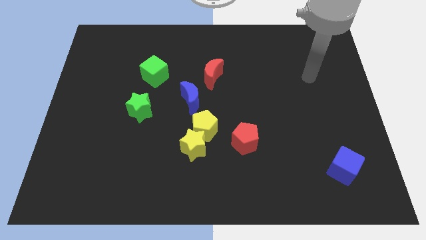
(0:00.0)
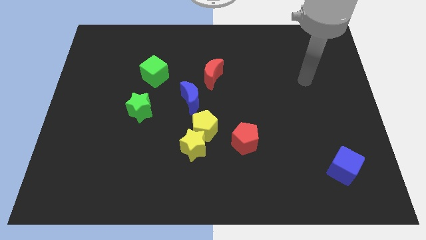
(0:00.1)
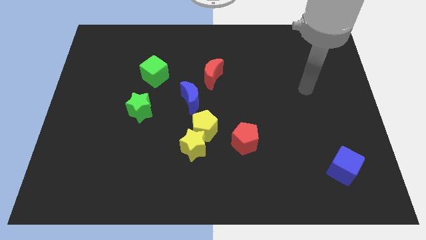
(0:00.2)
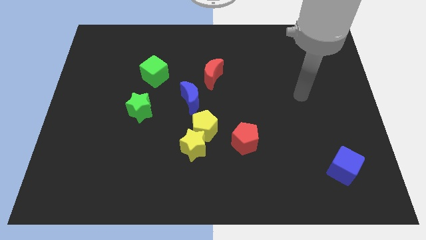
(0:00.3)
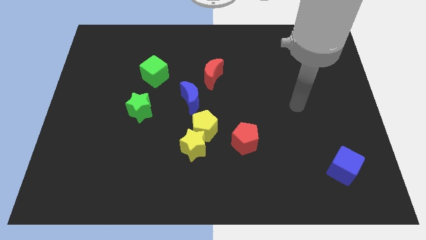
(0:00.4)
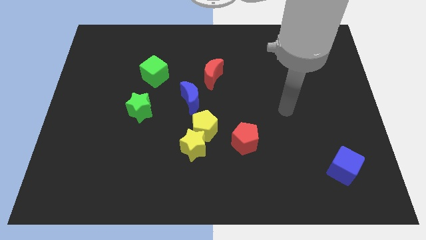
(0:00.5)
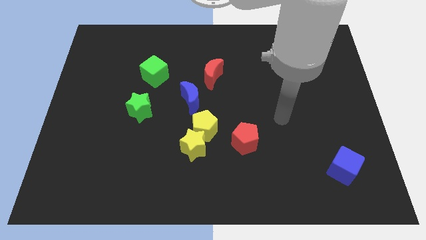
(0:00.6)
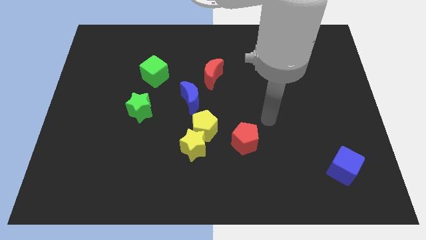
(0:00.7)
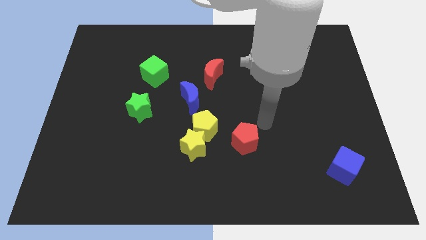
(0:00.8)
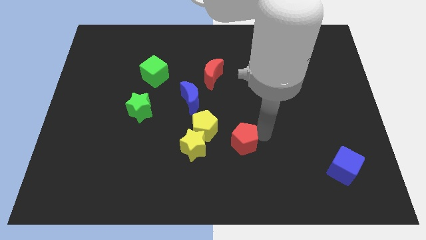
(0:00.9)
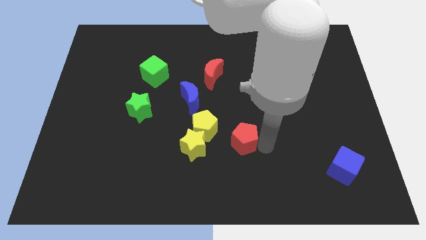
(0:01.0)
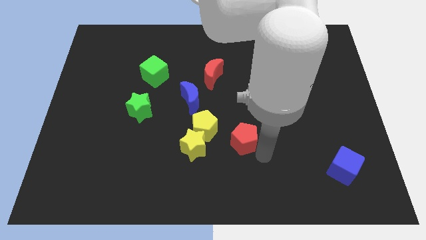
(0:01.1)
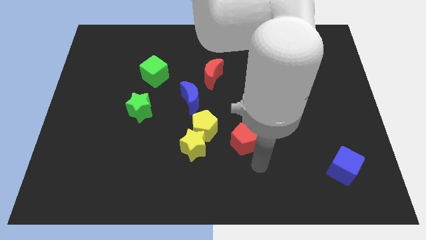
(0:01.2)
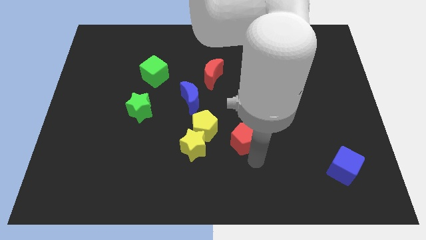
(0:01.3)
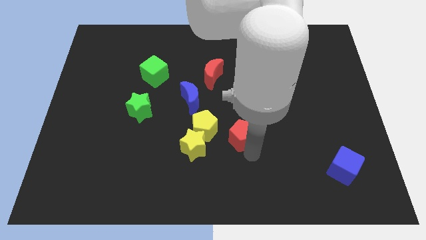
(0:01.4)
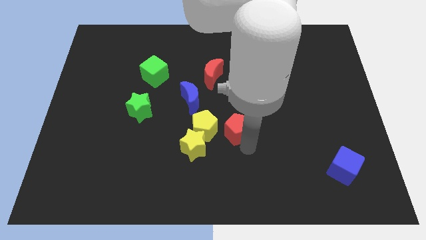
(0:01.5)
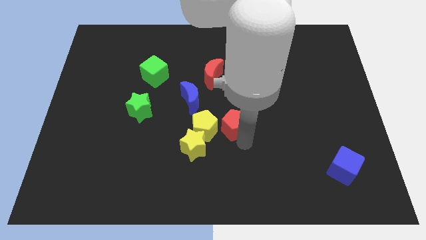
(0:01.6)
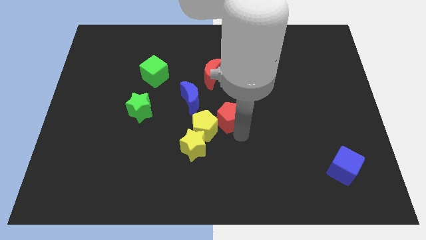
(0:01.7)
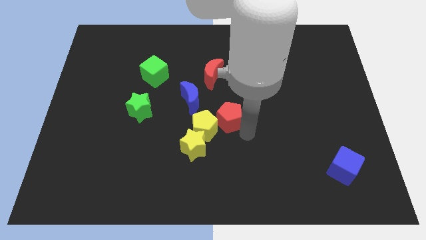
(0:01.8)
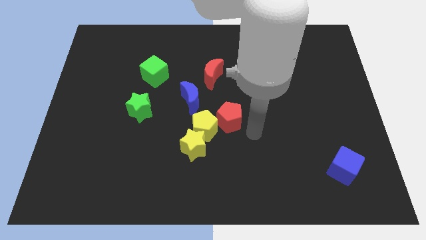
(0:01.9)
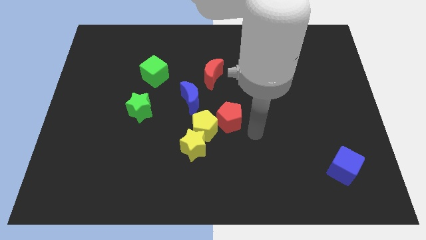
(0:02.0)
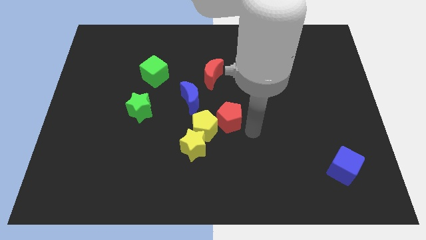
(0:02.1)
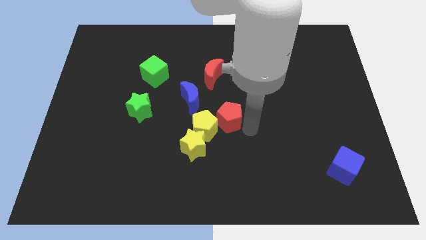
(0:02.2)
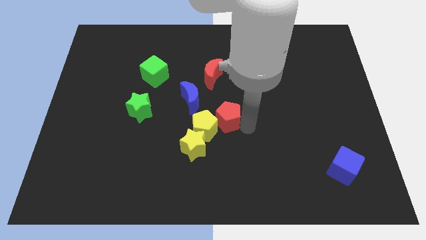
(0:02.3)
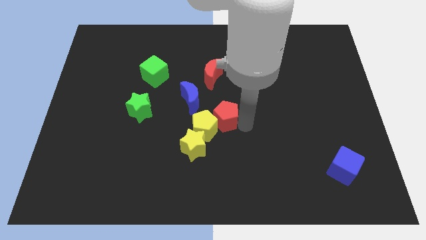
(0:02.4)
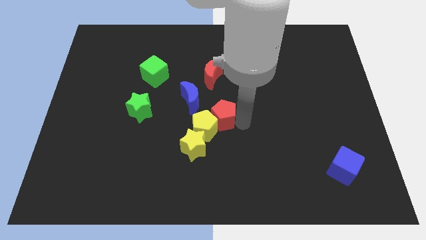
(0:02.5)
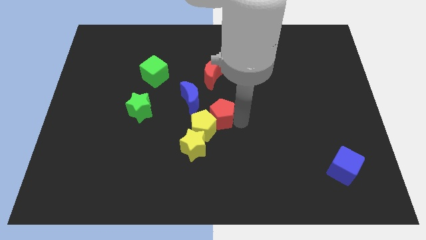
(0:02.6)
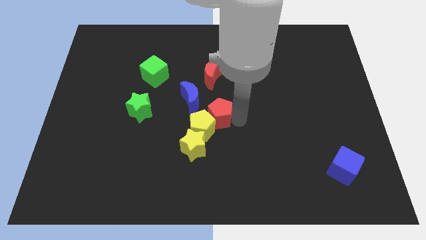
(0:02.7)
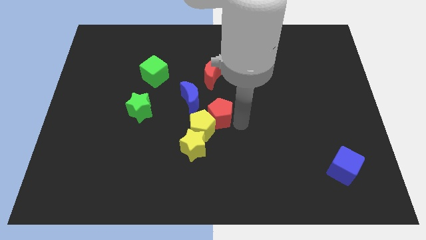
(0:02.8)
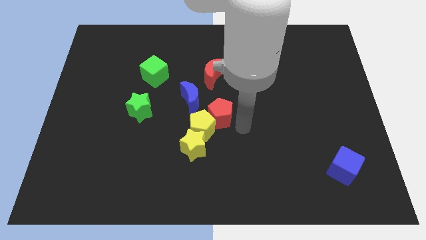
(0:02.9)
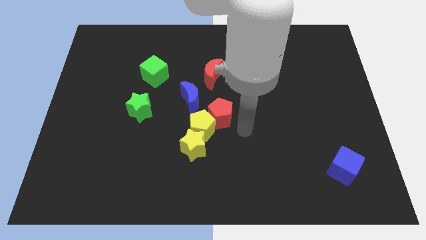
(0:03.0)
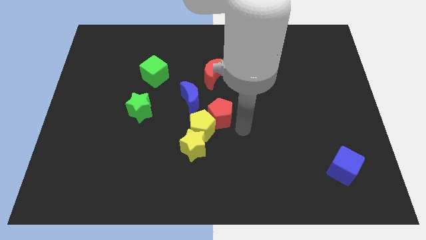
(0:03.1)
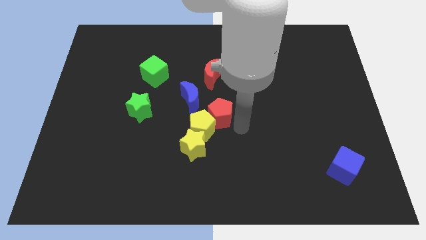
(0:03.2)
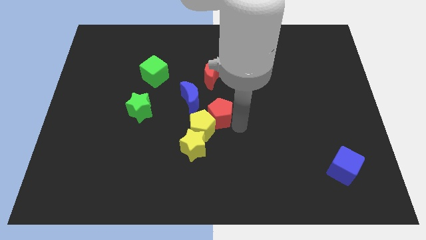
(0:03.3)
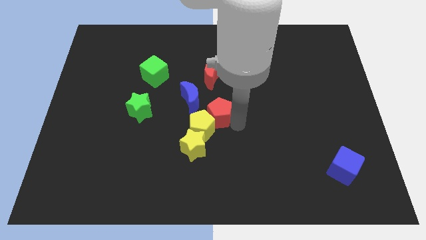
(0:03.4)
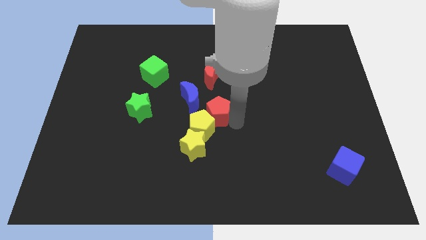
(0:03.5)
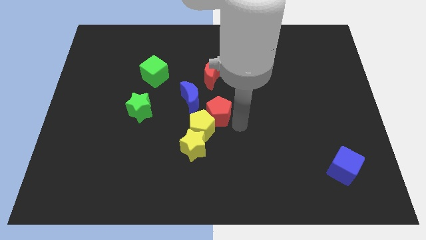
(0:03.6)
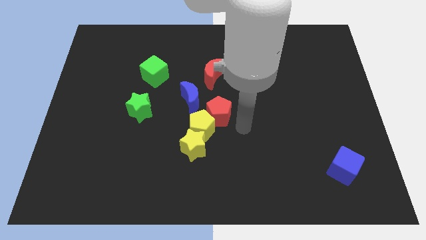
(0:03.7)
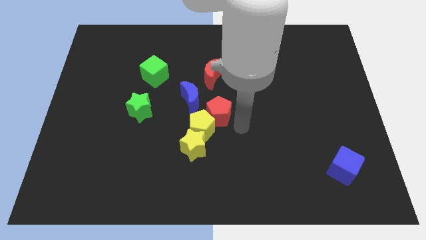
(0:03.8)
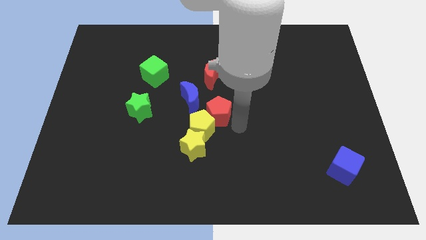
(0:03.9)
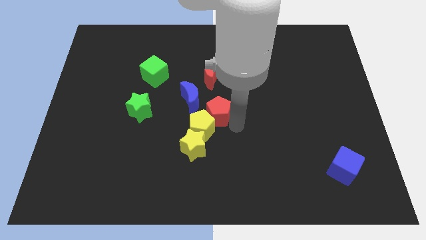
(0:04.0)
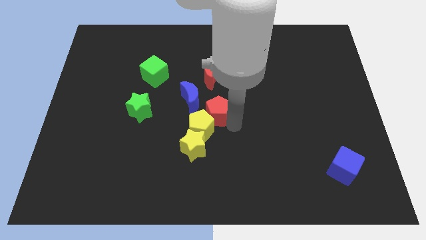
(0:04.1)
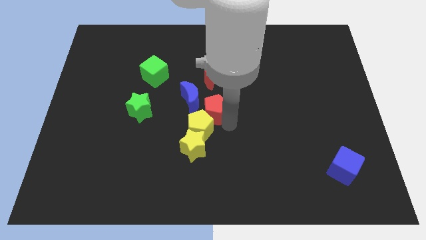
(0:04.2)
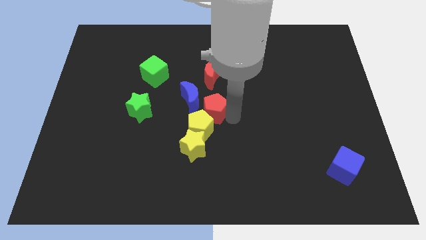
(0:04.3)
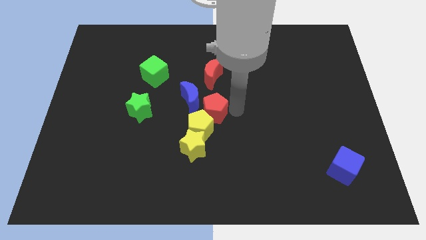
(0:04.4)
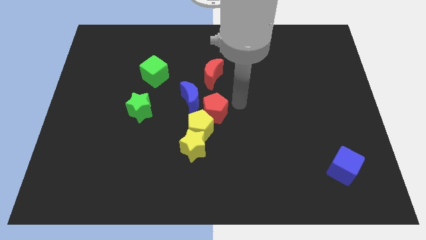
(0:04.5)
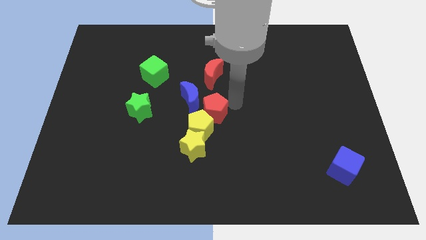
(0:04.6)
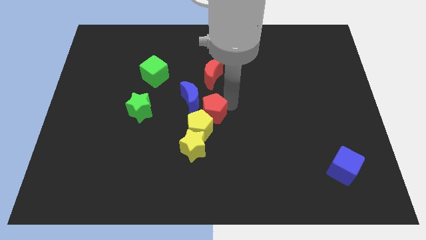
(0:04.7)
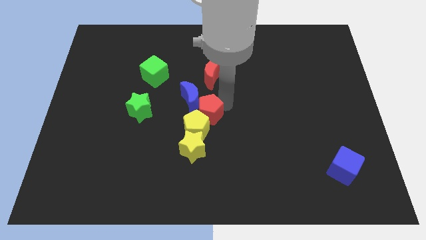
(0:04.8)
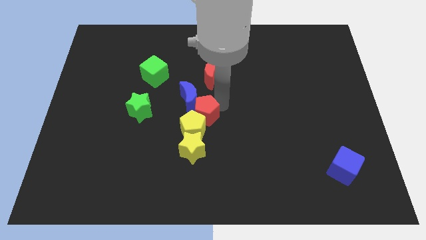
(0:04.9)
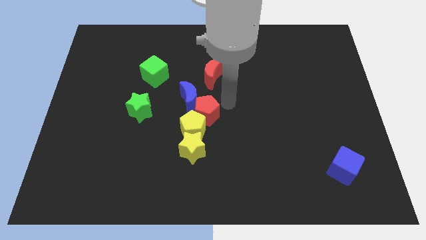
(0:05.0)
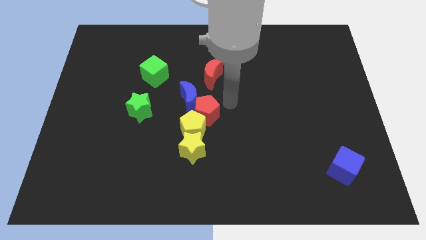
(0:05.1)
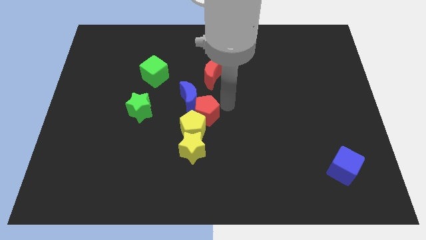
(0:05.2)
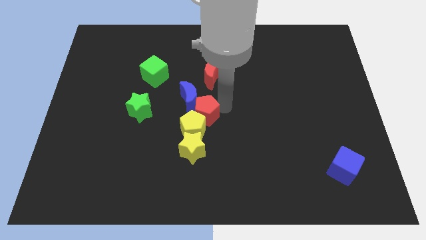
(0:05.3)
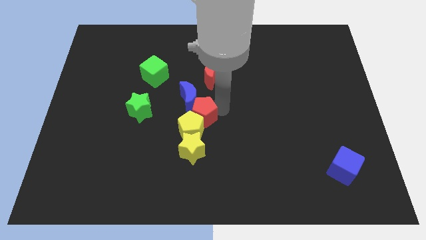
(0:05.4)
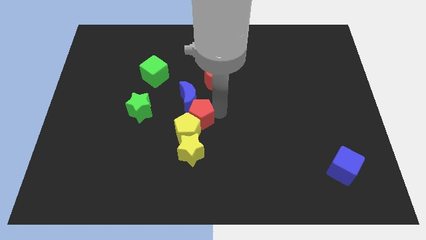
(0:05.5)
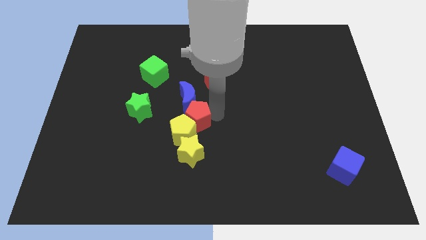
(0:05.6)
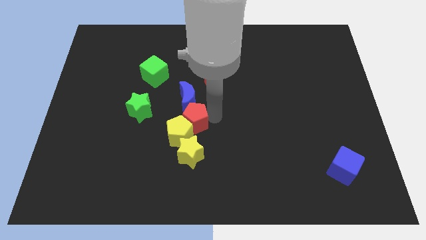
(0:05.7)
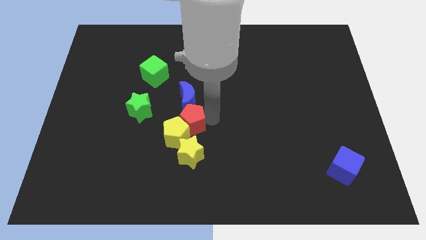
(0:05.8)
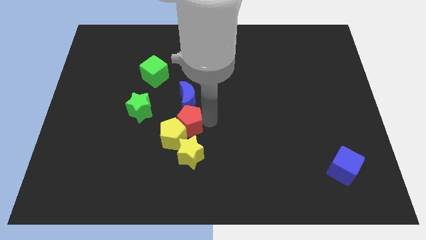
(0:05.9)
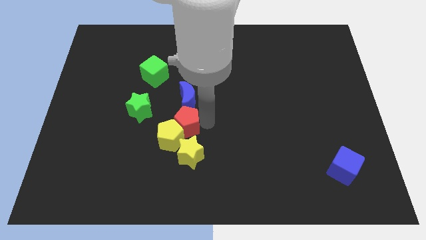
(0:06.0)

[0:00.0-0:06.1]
put the red pentagon to the top left of the yellow star
